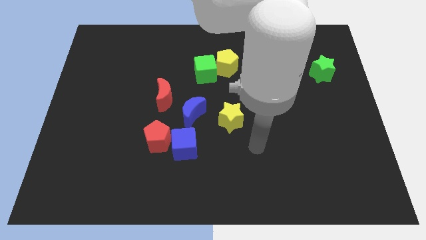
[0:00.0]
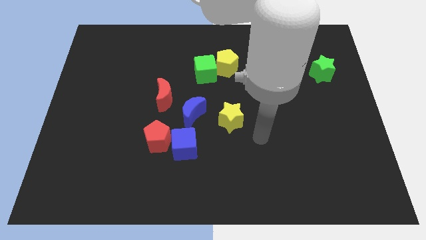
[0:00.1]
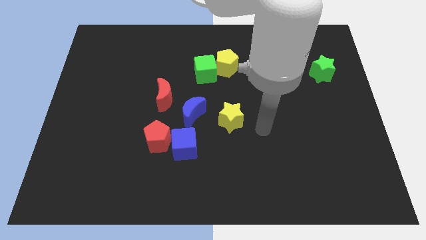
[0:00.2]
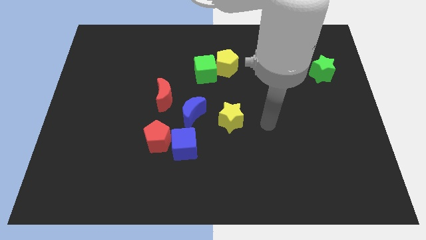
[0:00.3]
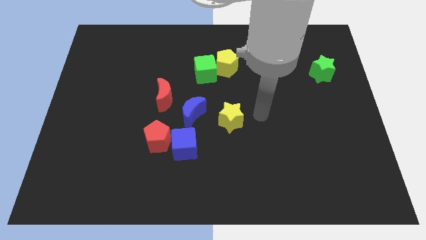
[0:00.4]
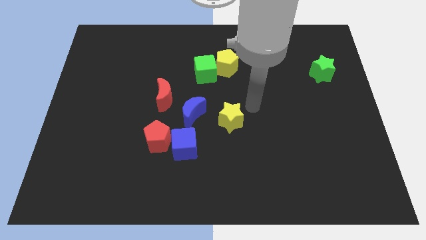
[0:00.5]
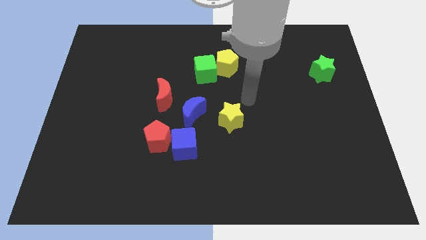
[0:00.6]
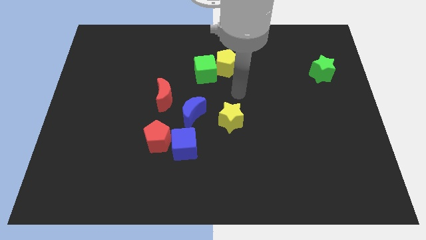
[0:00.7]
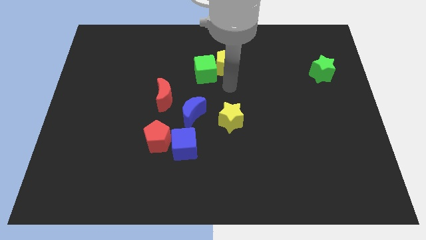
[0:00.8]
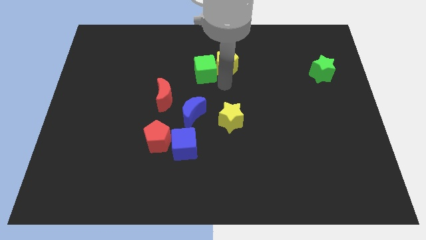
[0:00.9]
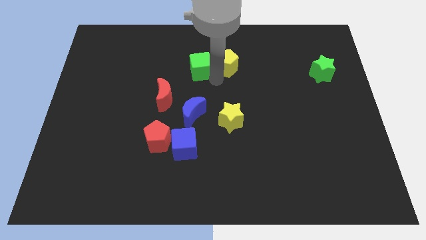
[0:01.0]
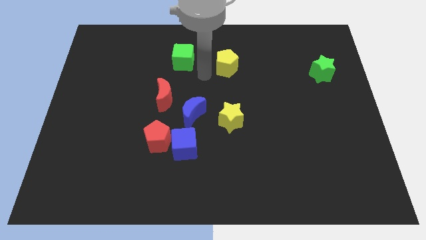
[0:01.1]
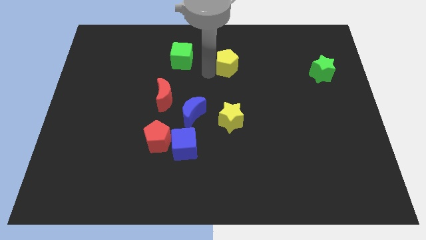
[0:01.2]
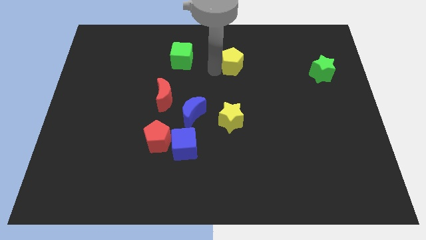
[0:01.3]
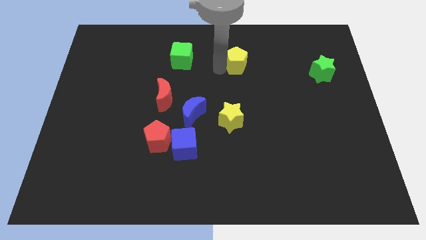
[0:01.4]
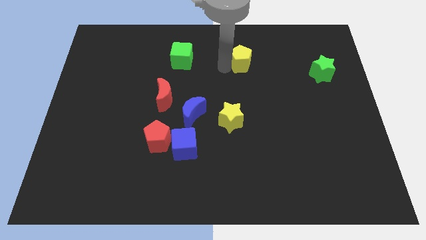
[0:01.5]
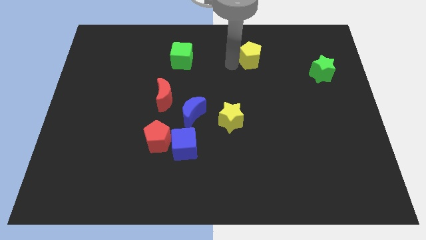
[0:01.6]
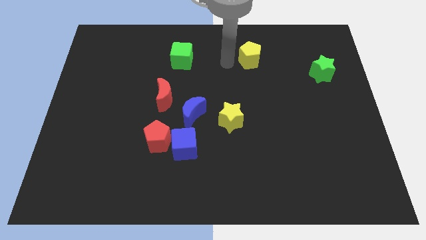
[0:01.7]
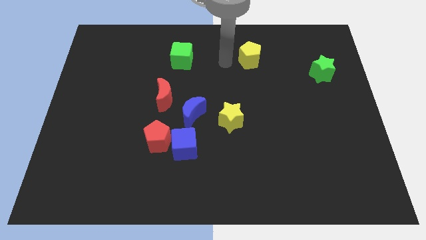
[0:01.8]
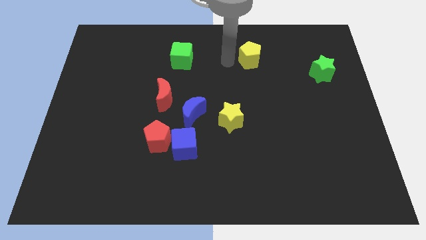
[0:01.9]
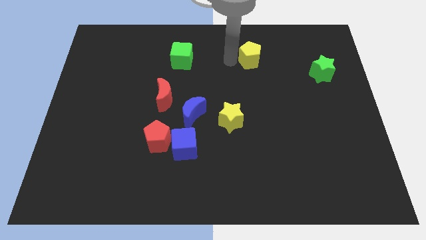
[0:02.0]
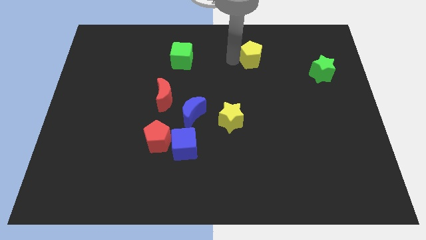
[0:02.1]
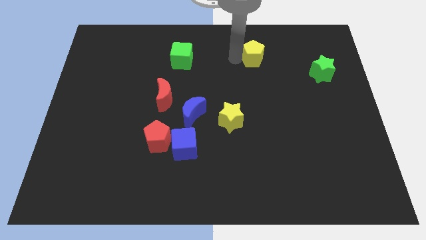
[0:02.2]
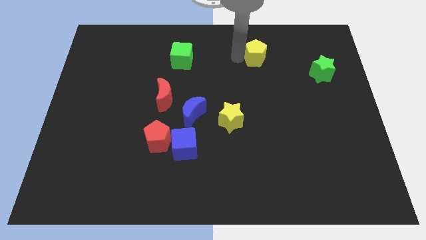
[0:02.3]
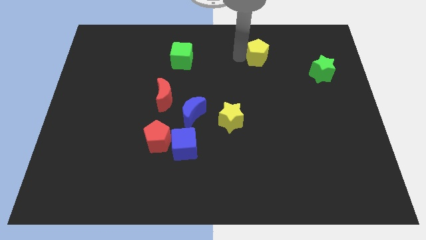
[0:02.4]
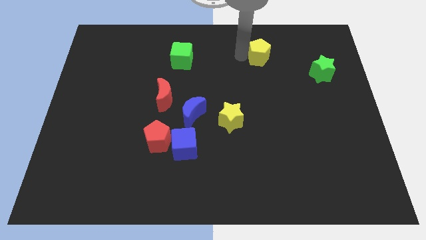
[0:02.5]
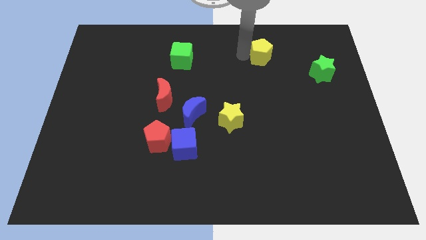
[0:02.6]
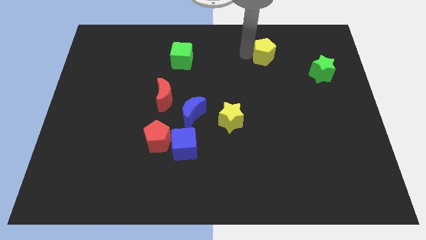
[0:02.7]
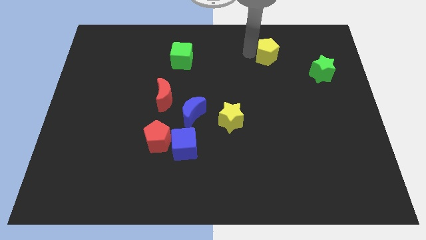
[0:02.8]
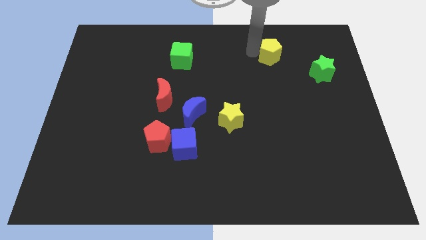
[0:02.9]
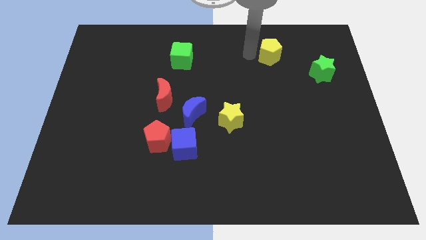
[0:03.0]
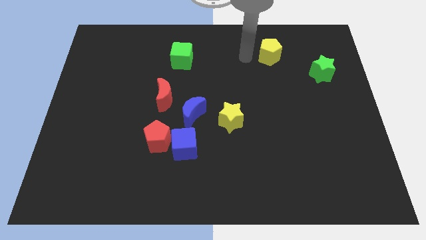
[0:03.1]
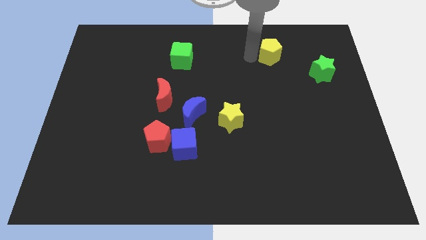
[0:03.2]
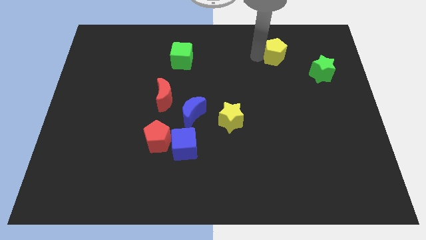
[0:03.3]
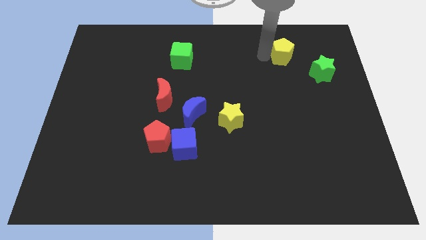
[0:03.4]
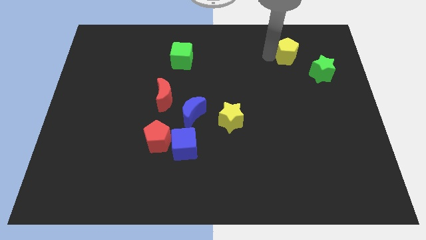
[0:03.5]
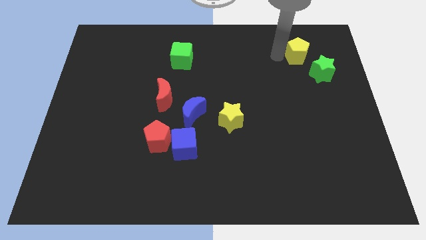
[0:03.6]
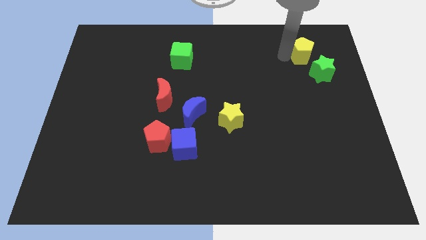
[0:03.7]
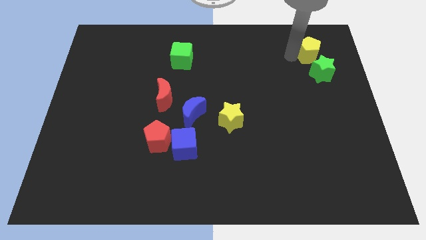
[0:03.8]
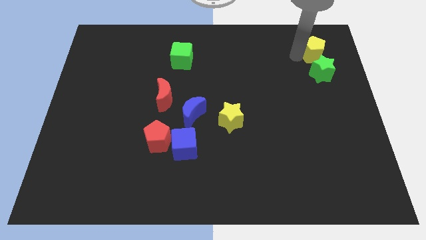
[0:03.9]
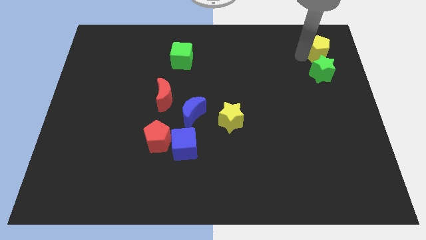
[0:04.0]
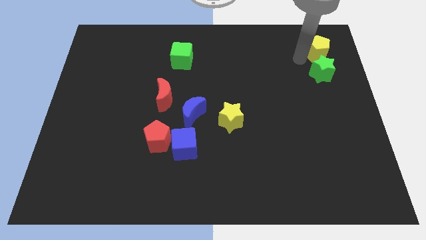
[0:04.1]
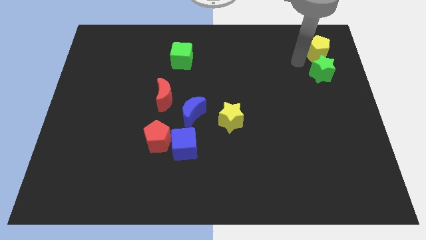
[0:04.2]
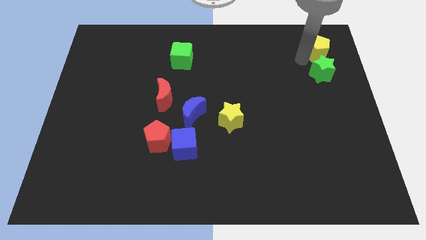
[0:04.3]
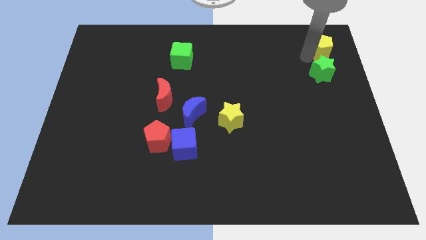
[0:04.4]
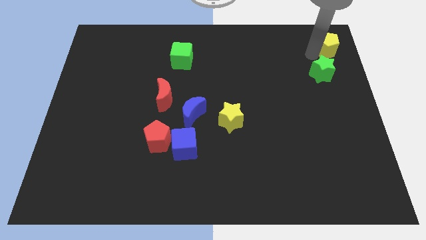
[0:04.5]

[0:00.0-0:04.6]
move the yellow pentagon to the top right corner

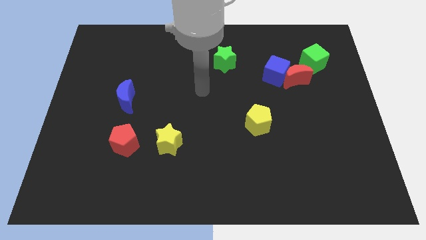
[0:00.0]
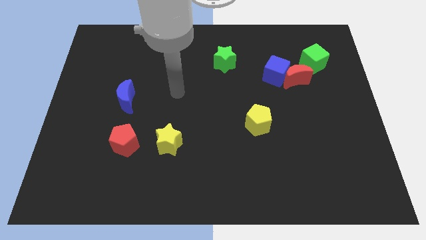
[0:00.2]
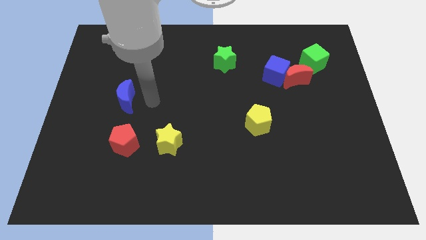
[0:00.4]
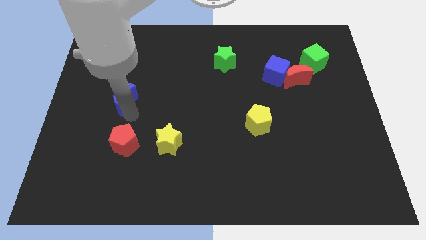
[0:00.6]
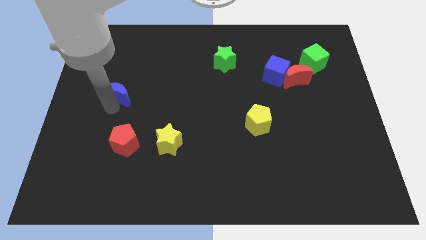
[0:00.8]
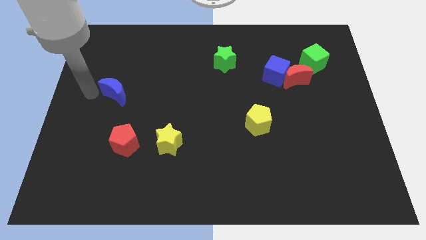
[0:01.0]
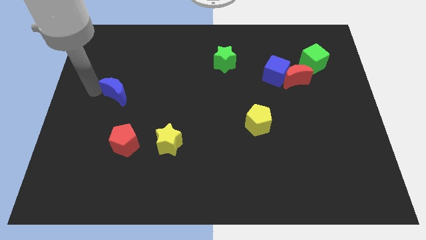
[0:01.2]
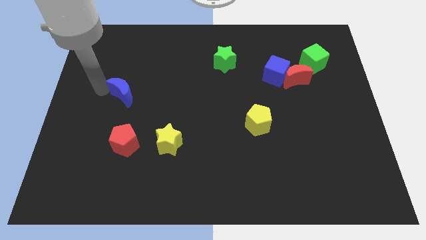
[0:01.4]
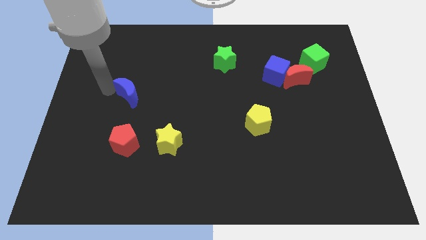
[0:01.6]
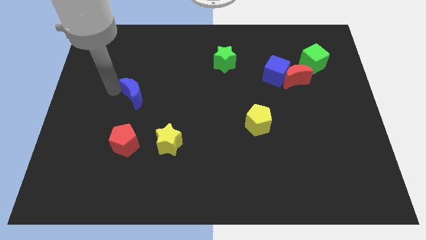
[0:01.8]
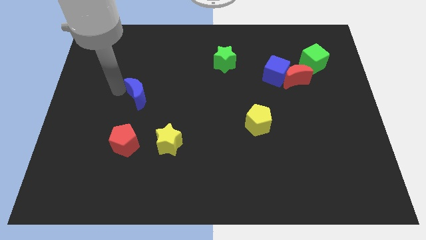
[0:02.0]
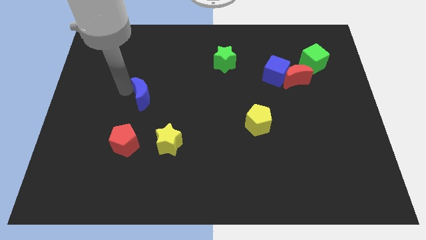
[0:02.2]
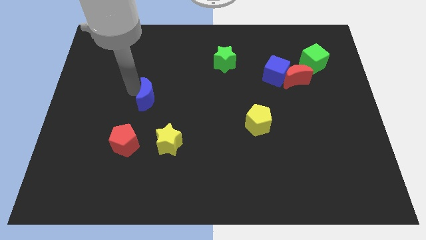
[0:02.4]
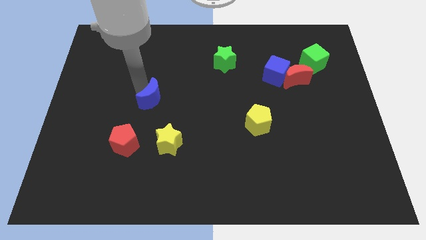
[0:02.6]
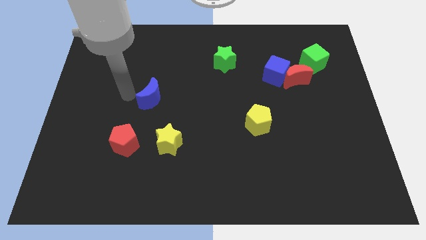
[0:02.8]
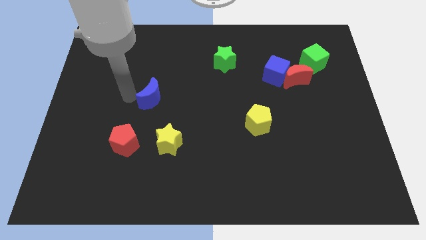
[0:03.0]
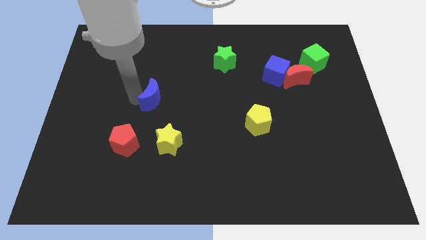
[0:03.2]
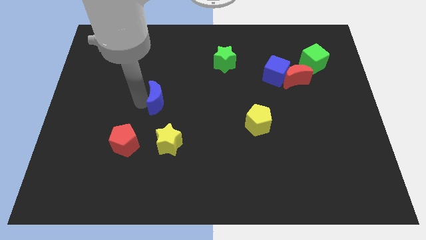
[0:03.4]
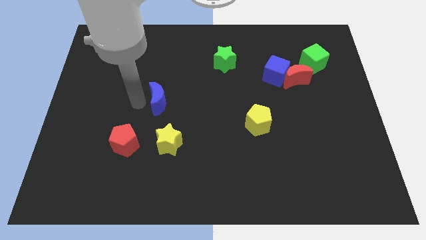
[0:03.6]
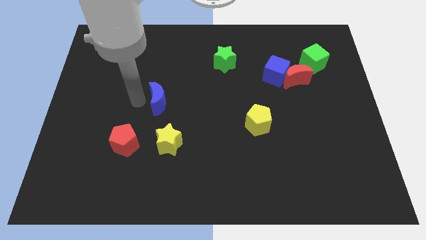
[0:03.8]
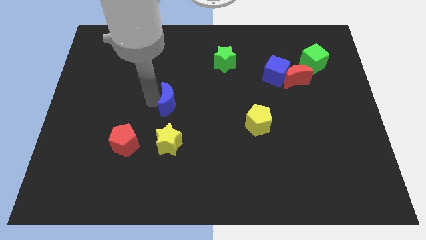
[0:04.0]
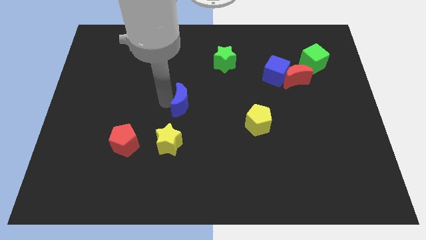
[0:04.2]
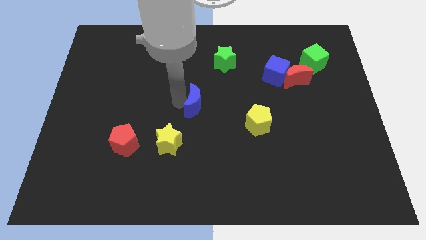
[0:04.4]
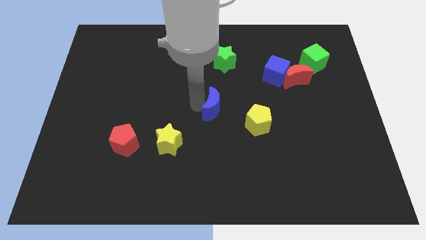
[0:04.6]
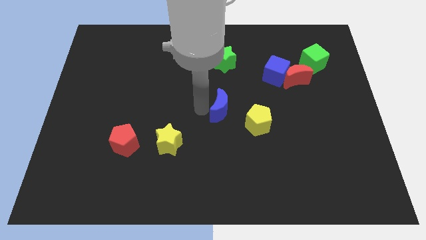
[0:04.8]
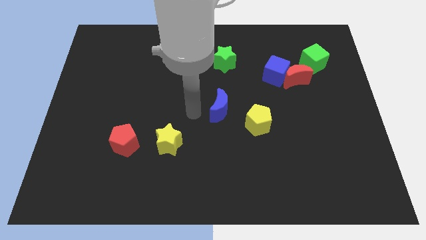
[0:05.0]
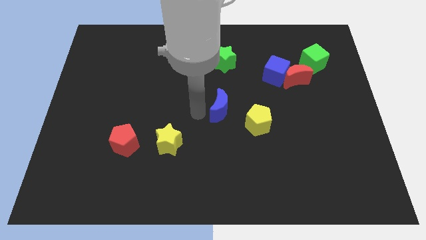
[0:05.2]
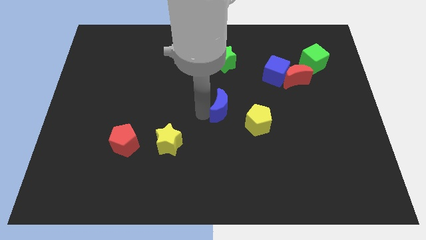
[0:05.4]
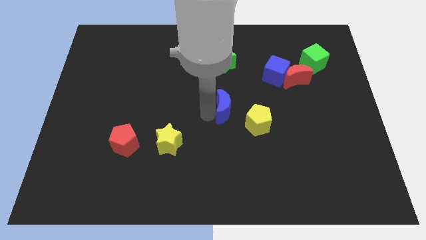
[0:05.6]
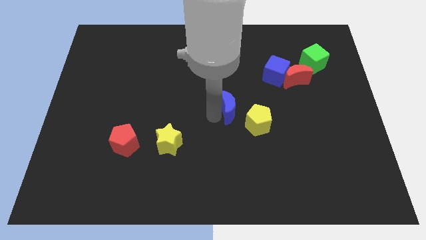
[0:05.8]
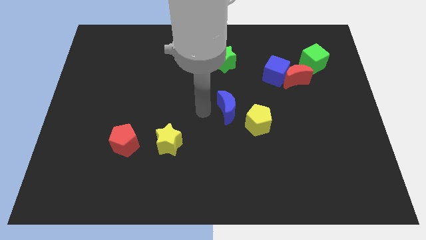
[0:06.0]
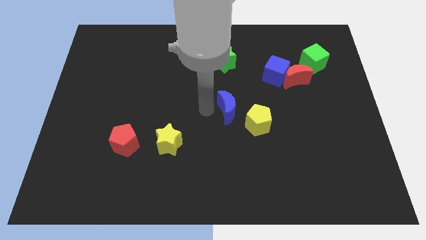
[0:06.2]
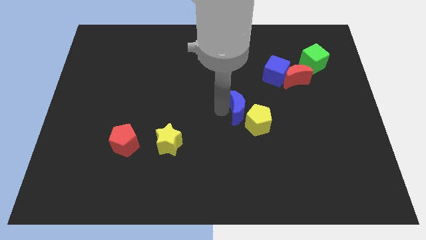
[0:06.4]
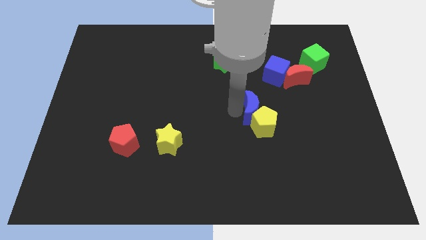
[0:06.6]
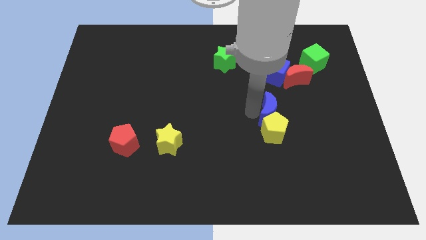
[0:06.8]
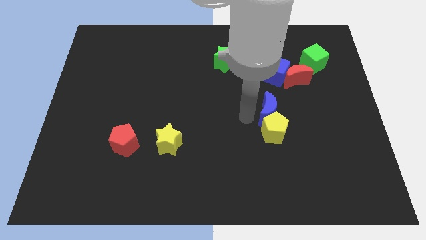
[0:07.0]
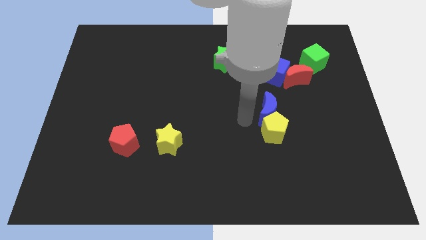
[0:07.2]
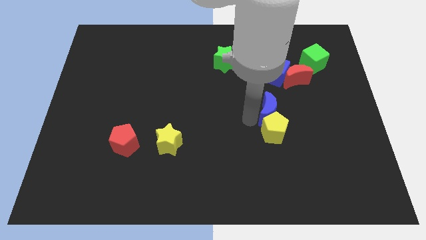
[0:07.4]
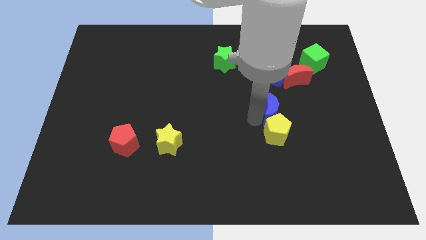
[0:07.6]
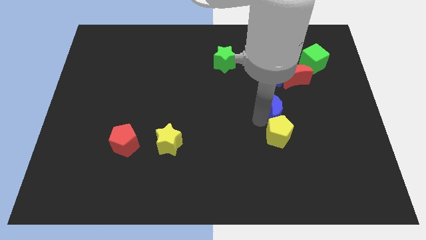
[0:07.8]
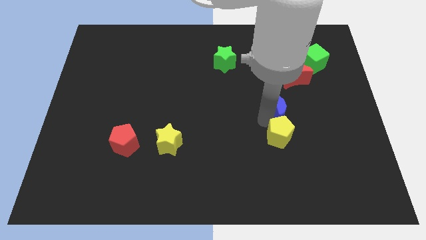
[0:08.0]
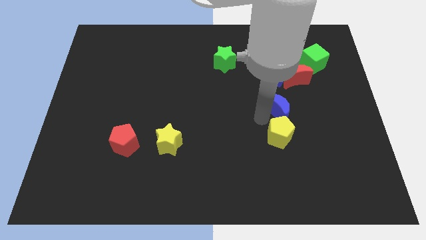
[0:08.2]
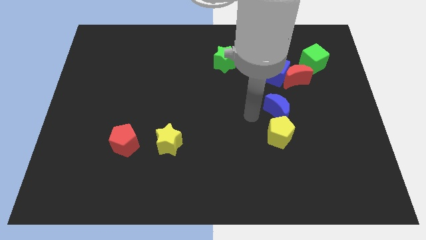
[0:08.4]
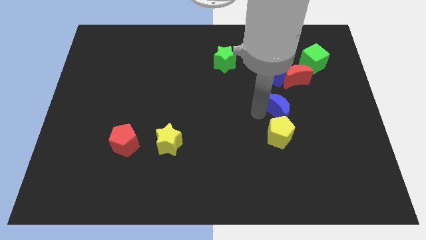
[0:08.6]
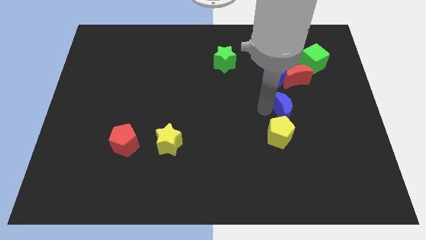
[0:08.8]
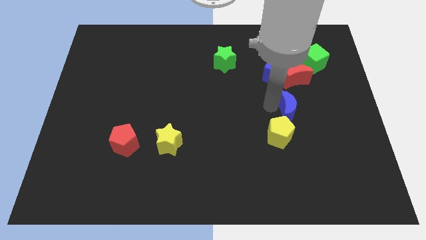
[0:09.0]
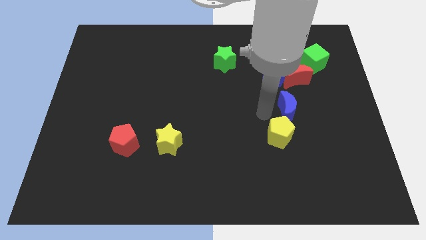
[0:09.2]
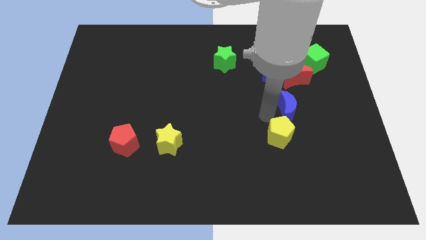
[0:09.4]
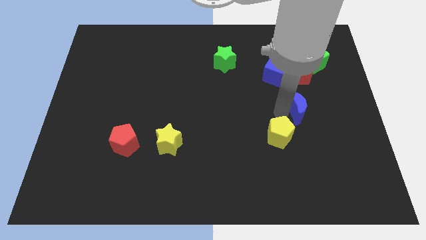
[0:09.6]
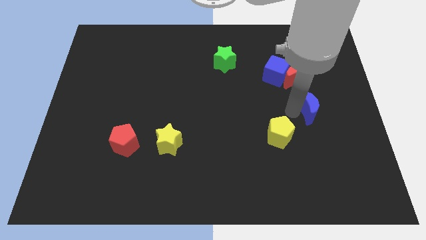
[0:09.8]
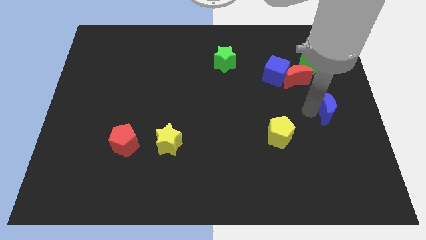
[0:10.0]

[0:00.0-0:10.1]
put the blue moon to the right side of the board
